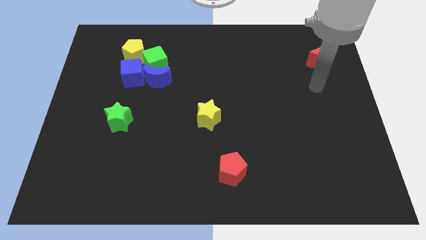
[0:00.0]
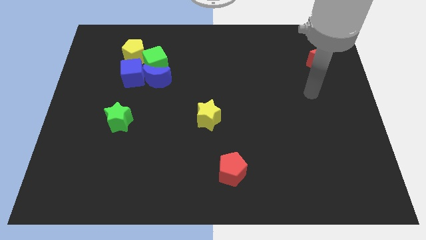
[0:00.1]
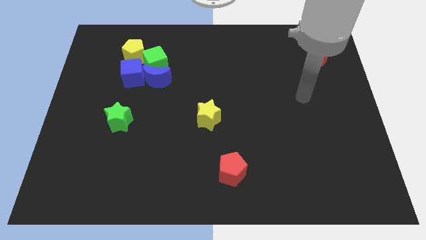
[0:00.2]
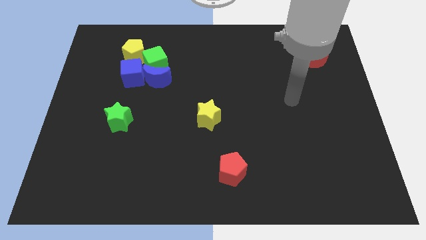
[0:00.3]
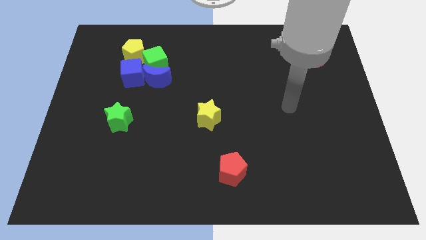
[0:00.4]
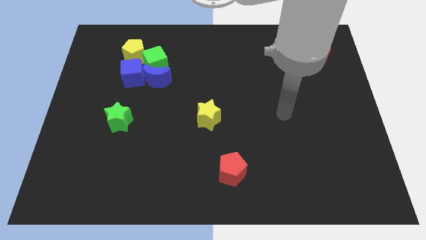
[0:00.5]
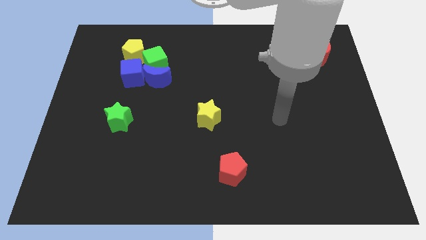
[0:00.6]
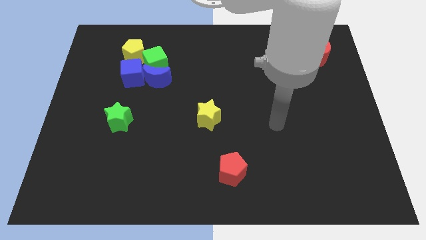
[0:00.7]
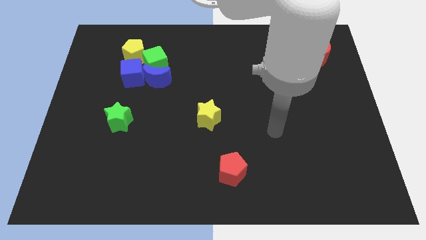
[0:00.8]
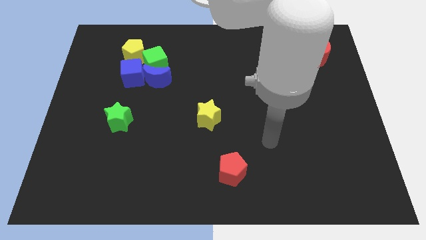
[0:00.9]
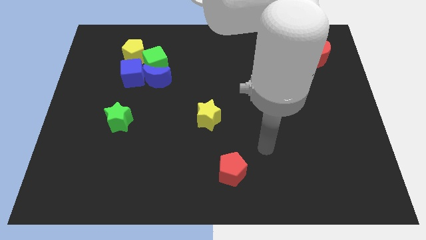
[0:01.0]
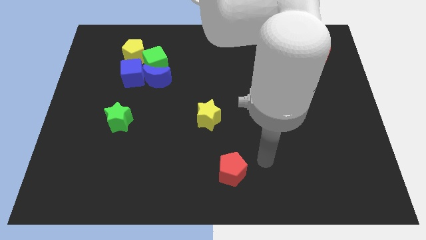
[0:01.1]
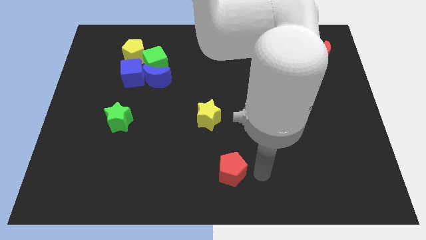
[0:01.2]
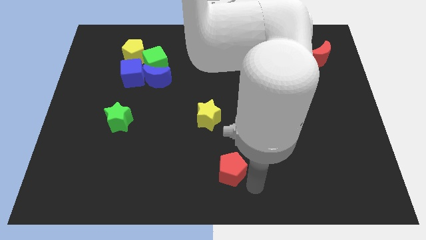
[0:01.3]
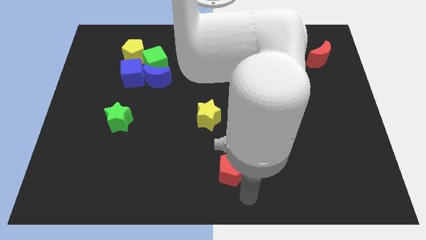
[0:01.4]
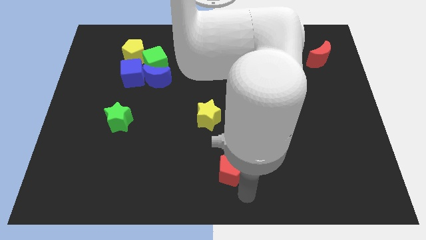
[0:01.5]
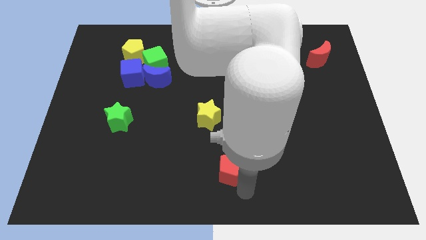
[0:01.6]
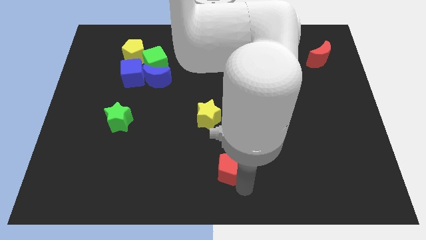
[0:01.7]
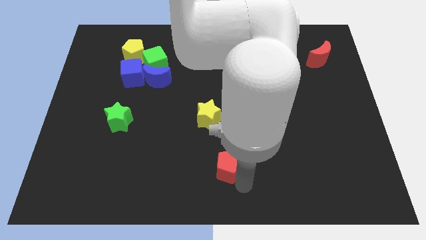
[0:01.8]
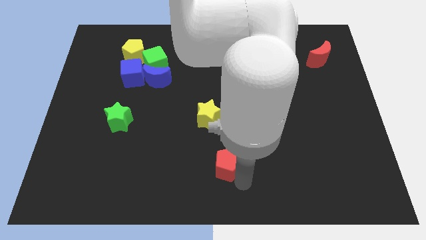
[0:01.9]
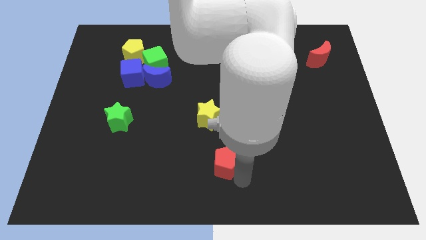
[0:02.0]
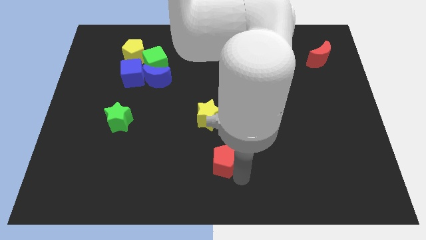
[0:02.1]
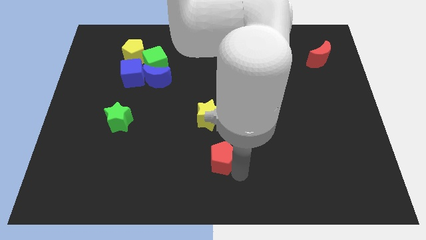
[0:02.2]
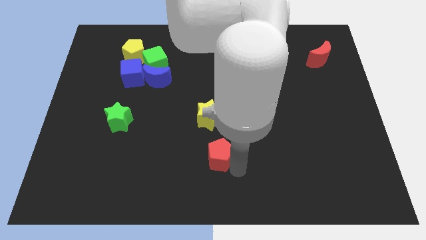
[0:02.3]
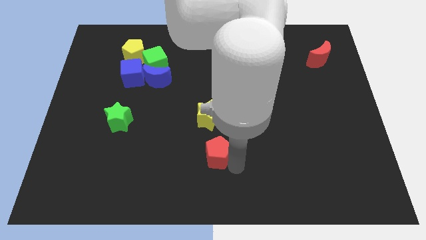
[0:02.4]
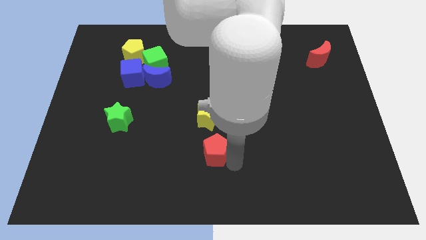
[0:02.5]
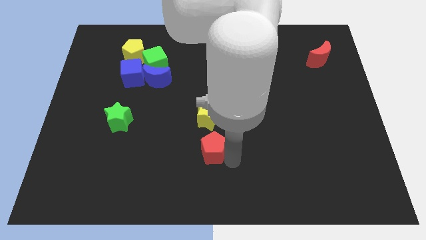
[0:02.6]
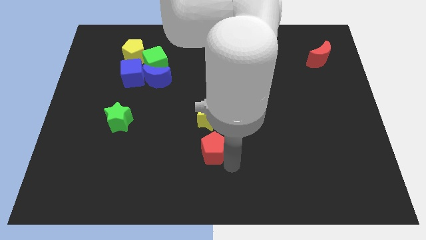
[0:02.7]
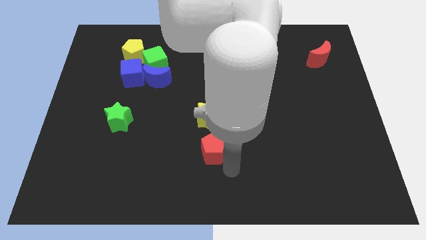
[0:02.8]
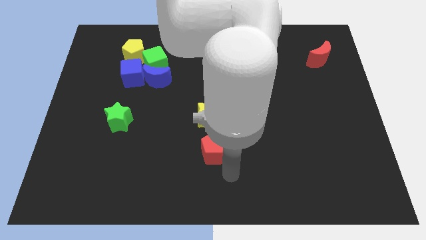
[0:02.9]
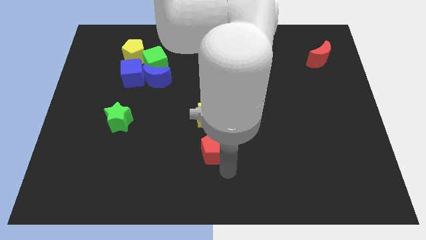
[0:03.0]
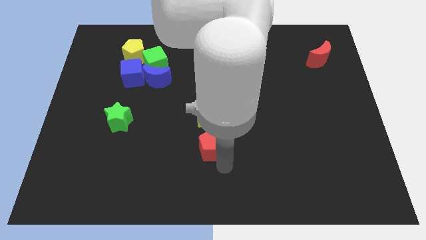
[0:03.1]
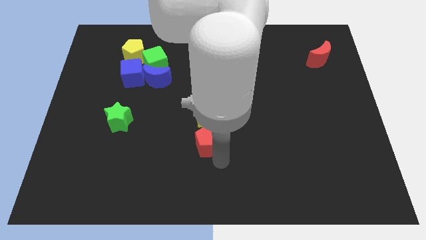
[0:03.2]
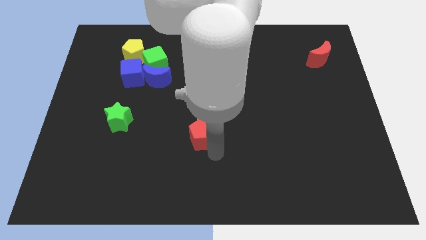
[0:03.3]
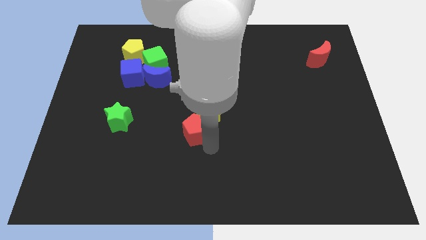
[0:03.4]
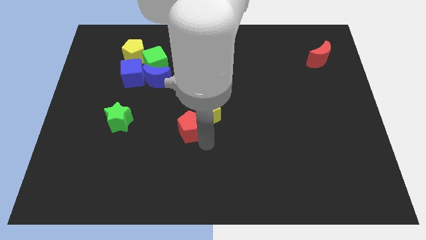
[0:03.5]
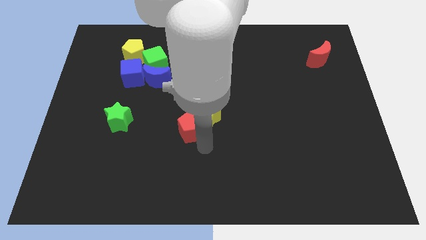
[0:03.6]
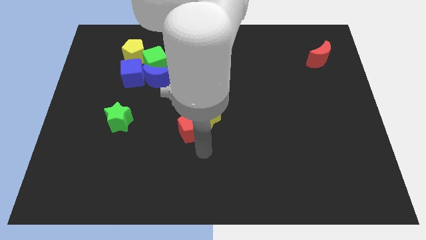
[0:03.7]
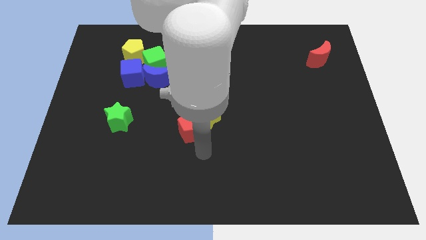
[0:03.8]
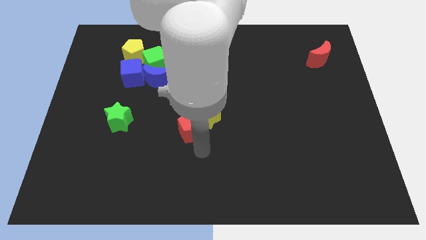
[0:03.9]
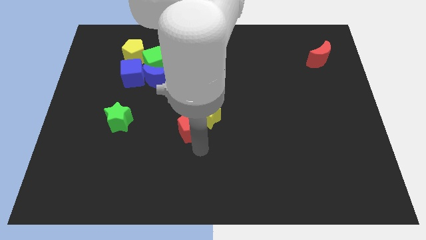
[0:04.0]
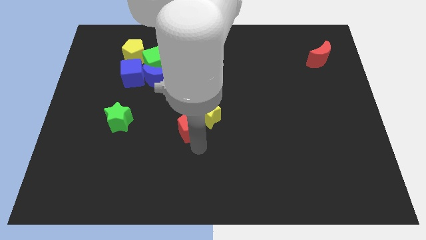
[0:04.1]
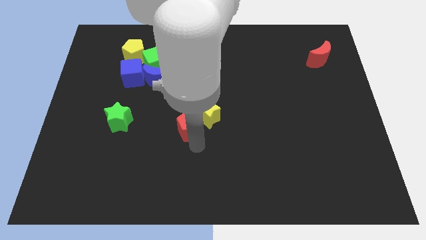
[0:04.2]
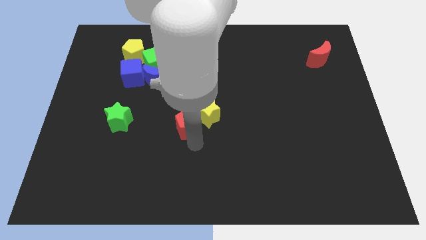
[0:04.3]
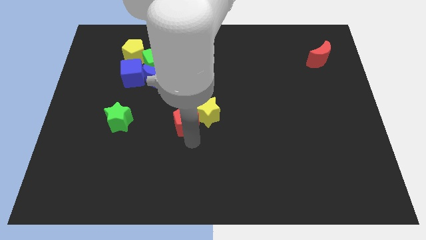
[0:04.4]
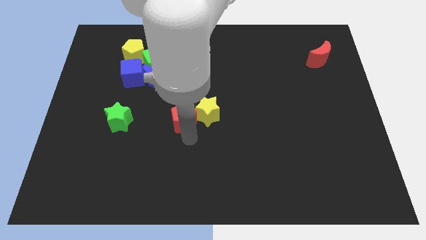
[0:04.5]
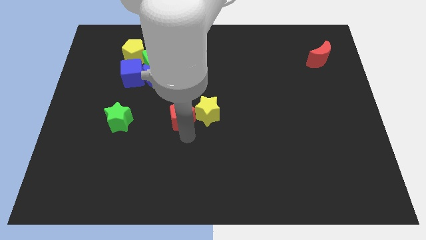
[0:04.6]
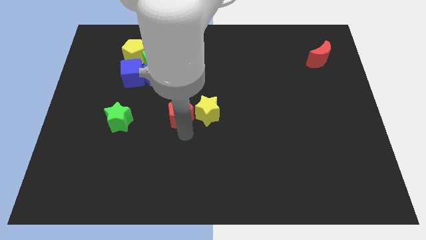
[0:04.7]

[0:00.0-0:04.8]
move the red pentagon to the top left side of the yellow star

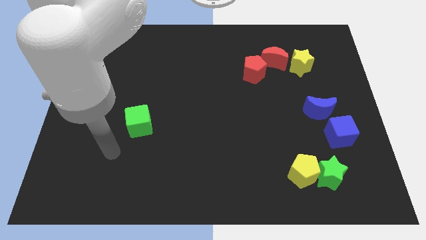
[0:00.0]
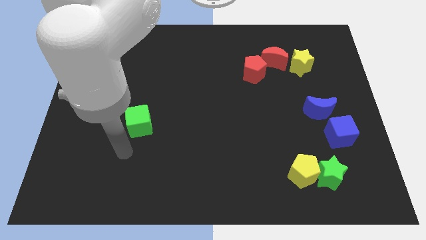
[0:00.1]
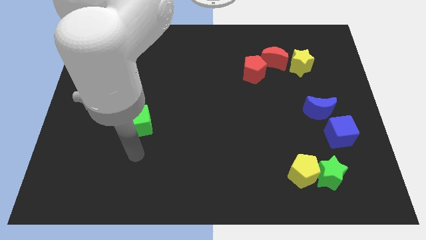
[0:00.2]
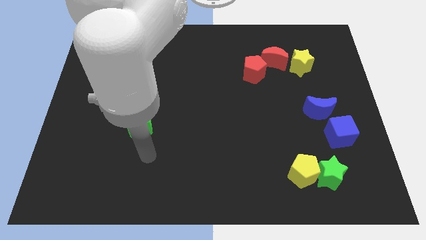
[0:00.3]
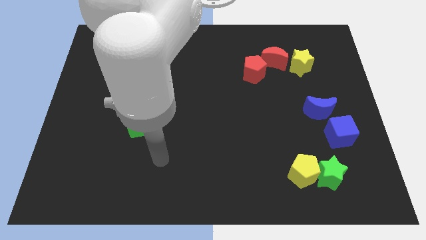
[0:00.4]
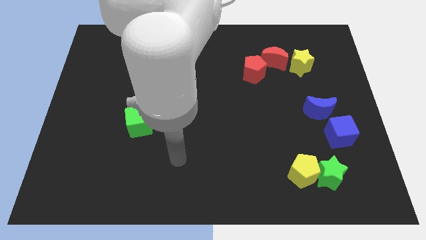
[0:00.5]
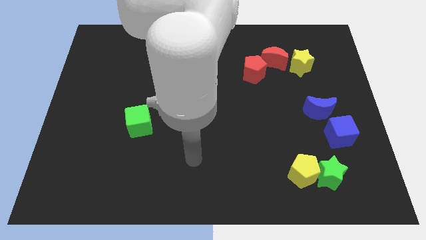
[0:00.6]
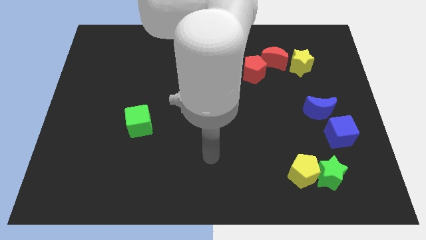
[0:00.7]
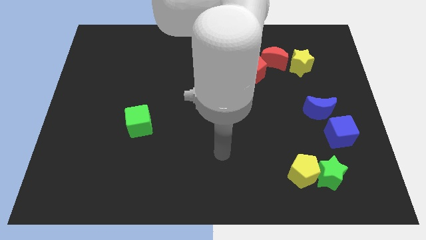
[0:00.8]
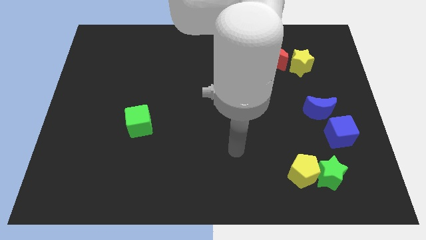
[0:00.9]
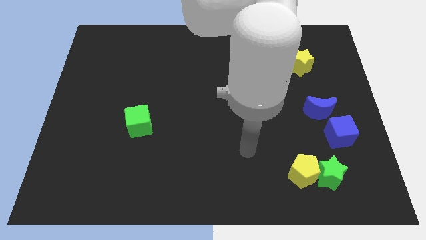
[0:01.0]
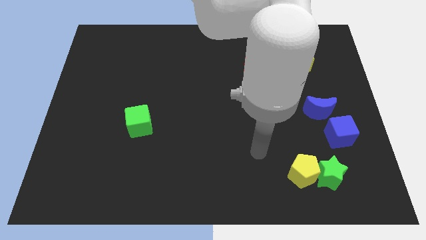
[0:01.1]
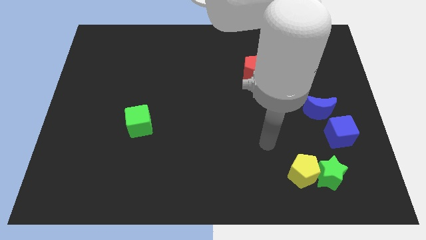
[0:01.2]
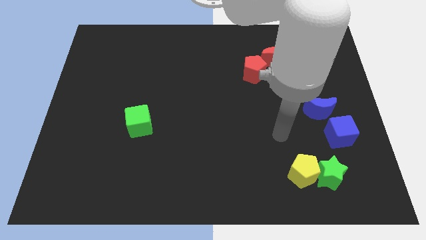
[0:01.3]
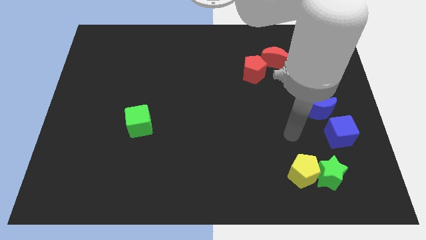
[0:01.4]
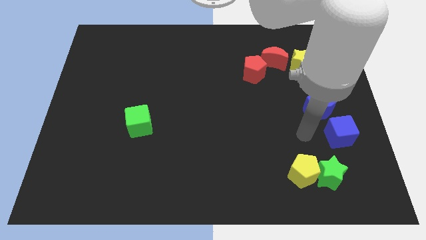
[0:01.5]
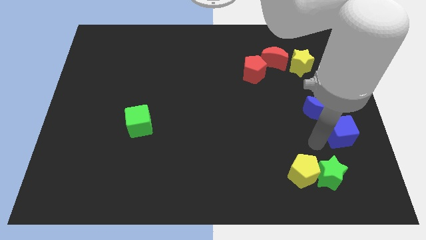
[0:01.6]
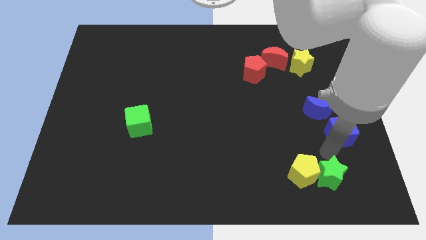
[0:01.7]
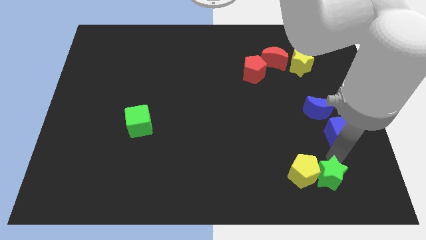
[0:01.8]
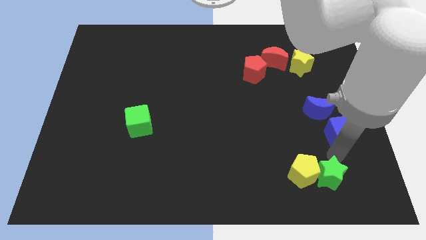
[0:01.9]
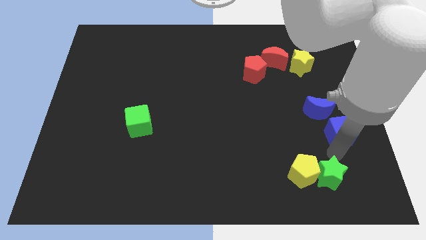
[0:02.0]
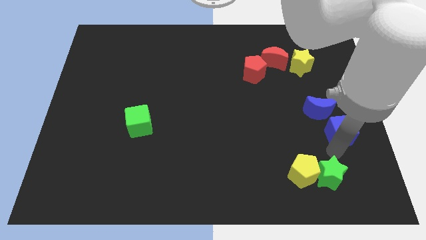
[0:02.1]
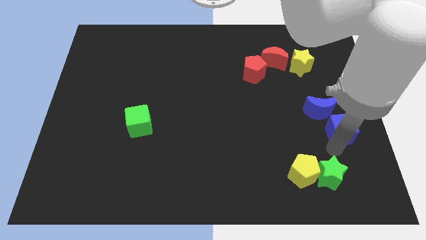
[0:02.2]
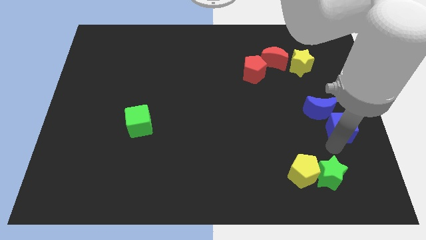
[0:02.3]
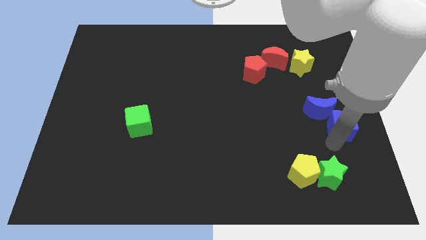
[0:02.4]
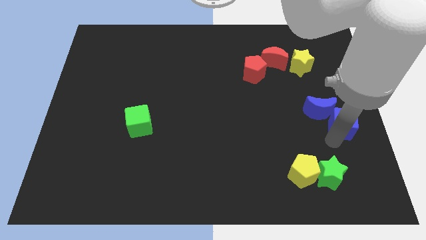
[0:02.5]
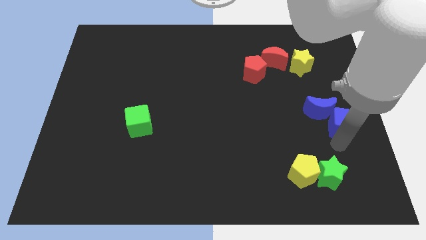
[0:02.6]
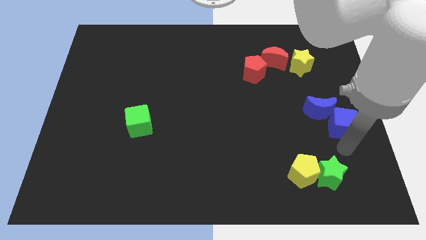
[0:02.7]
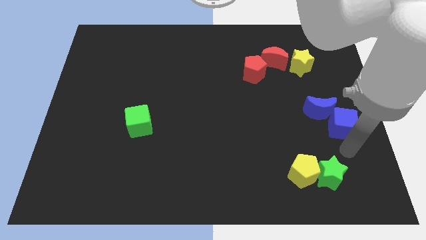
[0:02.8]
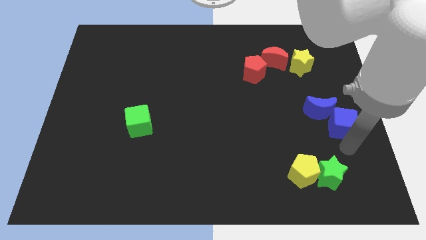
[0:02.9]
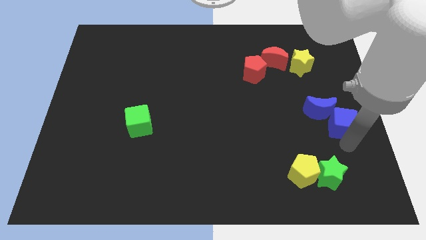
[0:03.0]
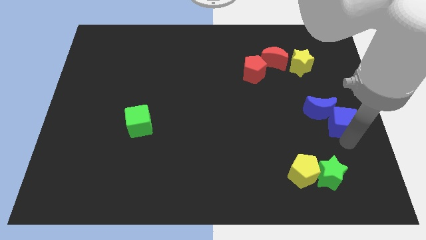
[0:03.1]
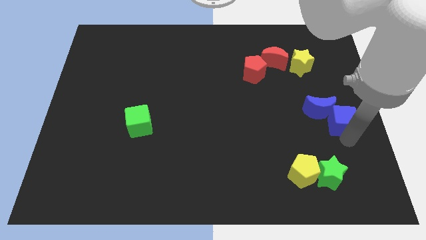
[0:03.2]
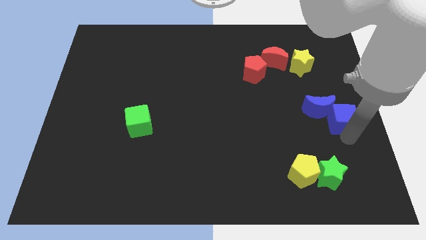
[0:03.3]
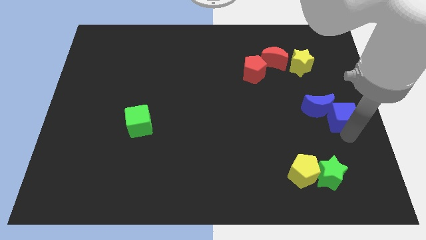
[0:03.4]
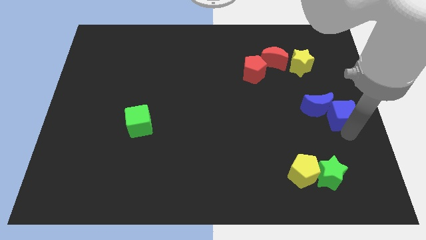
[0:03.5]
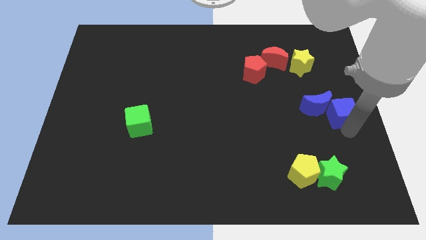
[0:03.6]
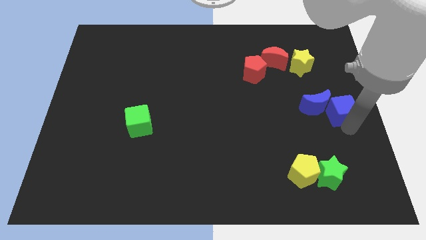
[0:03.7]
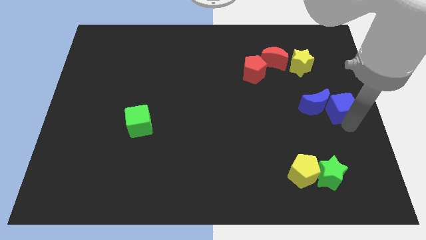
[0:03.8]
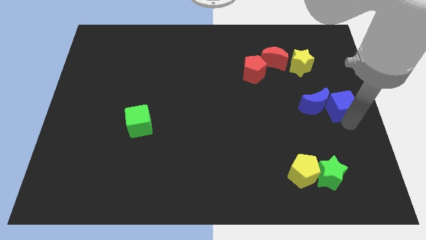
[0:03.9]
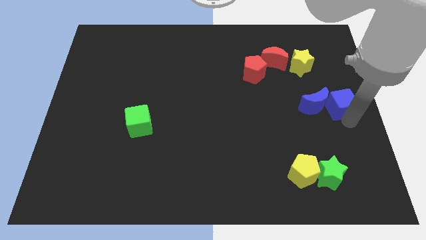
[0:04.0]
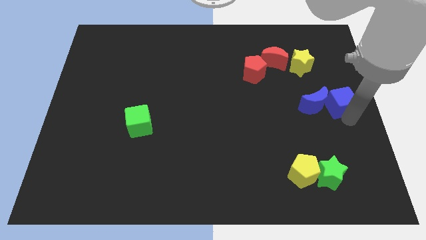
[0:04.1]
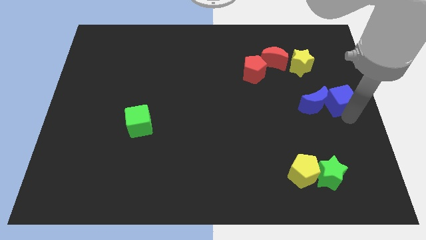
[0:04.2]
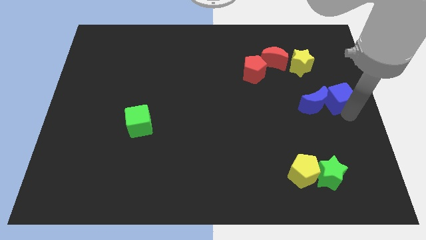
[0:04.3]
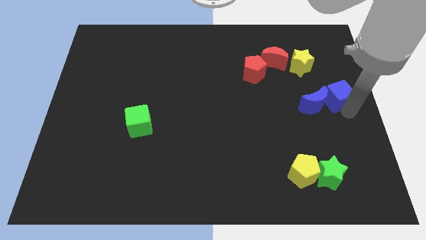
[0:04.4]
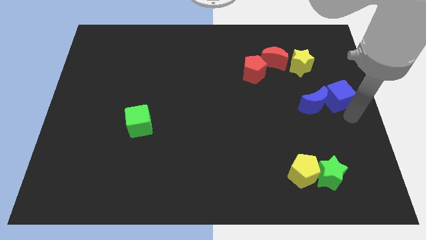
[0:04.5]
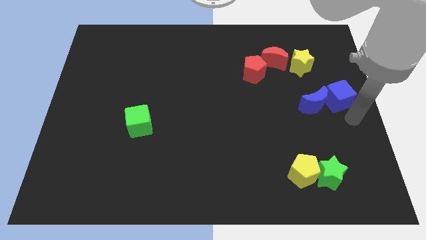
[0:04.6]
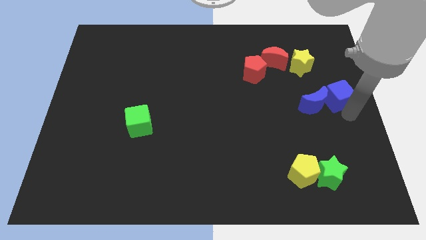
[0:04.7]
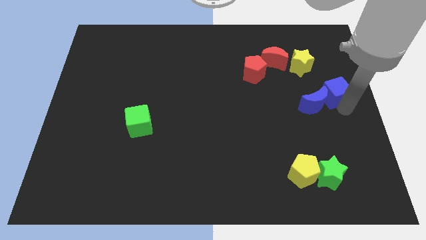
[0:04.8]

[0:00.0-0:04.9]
slide the blue cube diagonally down and to the right of the yellow star
